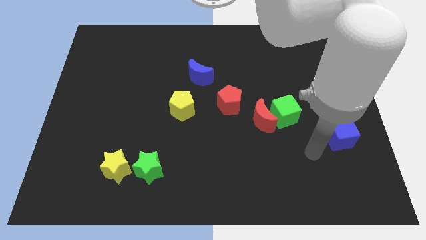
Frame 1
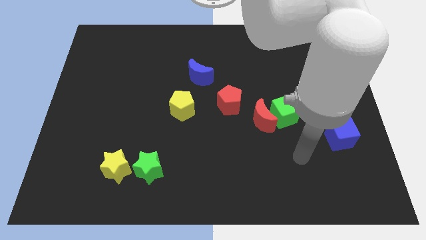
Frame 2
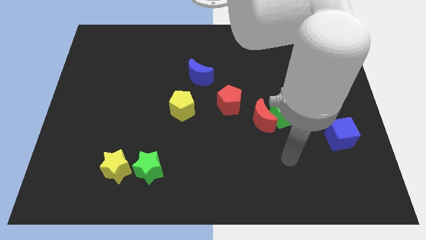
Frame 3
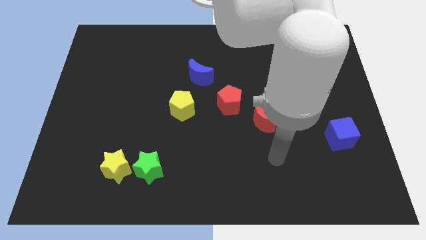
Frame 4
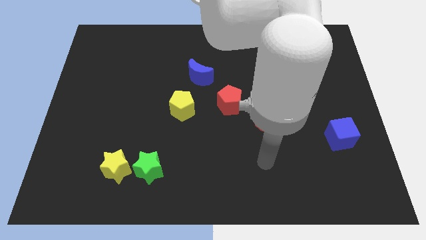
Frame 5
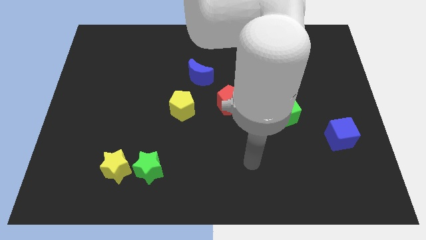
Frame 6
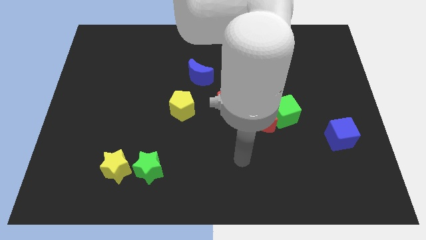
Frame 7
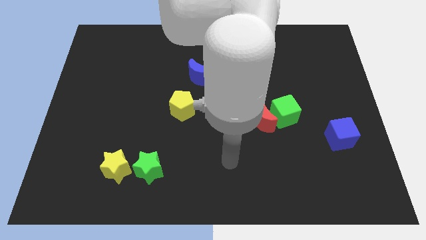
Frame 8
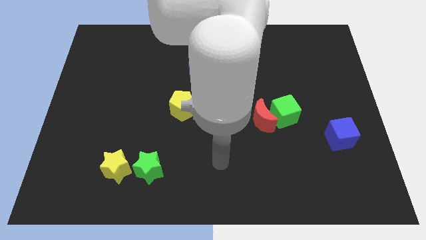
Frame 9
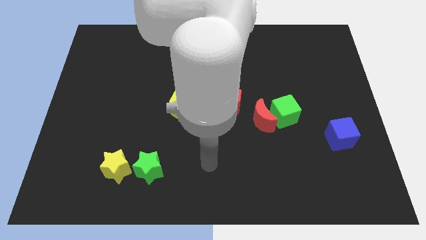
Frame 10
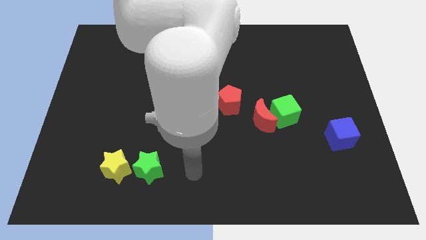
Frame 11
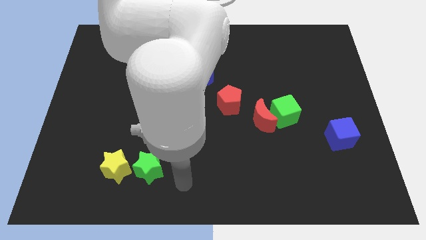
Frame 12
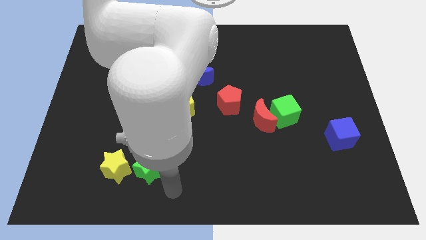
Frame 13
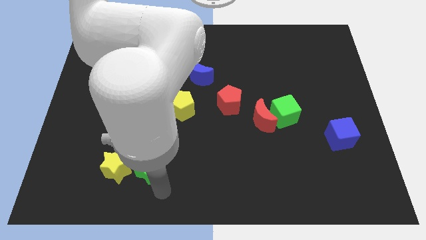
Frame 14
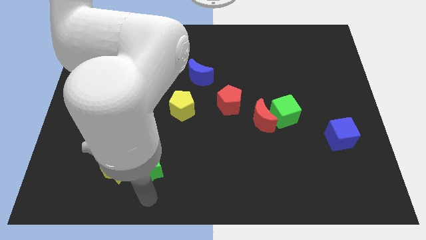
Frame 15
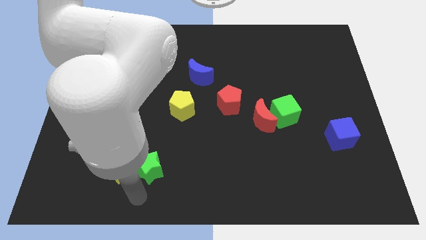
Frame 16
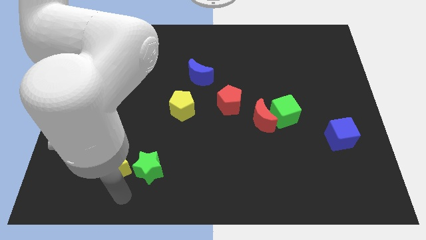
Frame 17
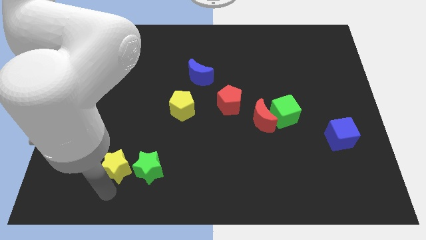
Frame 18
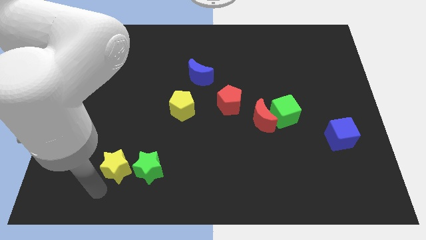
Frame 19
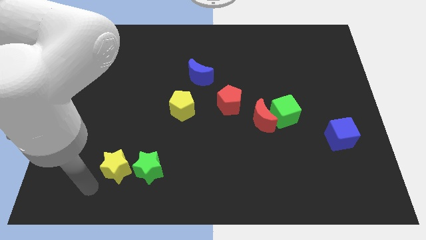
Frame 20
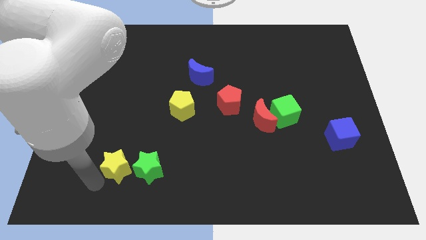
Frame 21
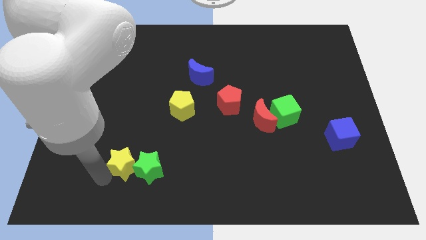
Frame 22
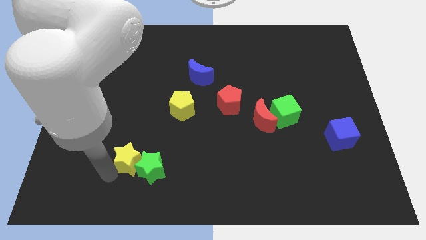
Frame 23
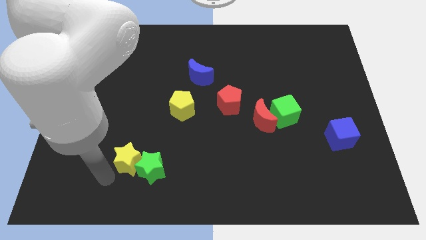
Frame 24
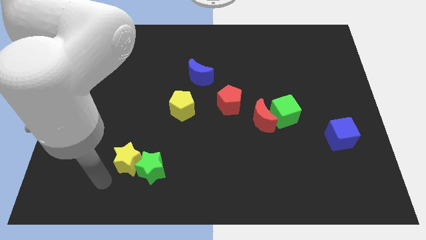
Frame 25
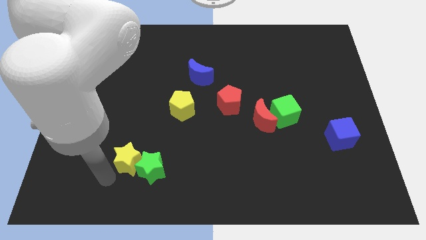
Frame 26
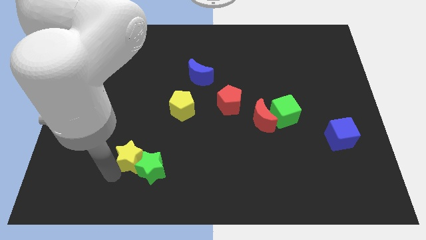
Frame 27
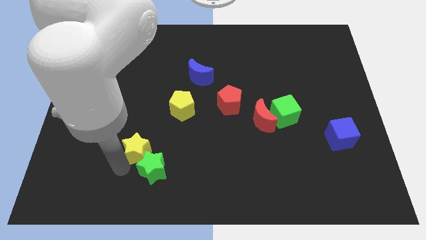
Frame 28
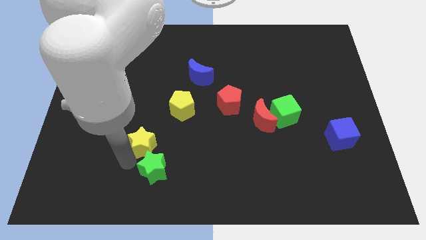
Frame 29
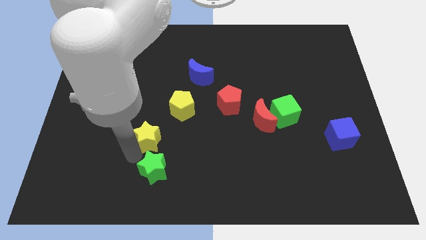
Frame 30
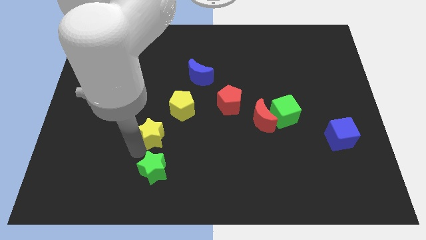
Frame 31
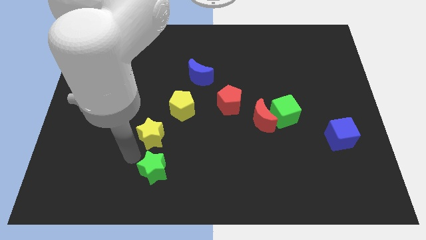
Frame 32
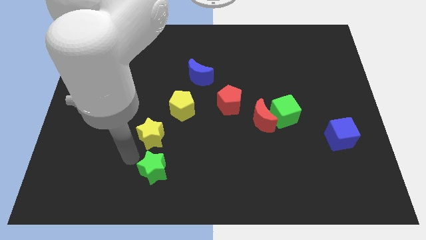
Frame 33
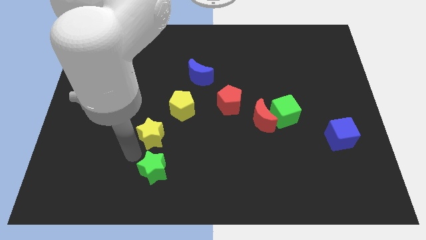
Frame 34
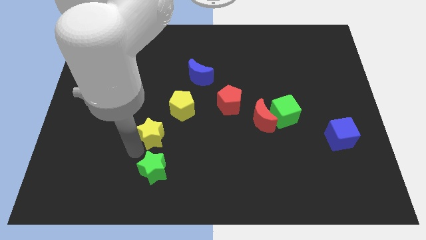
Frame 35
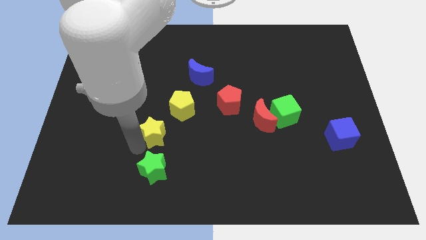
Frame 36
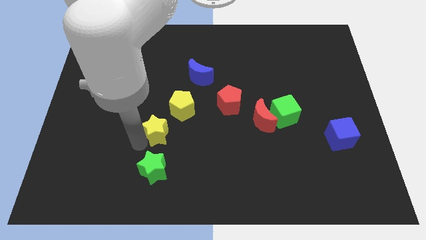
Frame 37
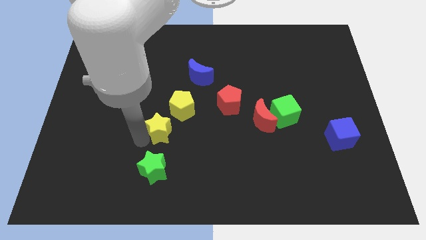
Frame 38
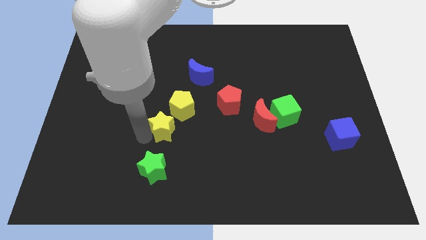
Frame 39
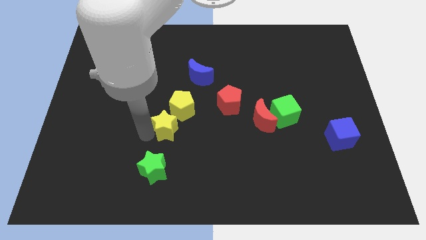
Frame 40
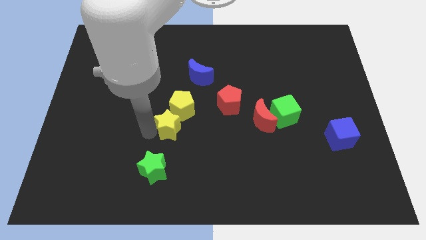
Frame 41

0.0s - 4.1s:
put the yellow star close to the yellow pentagon

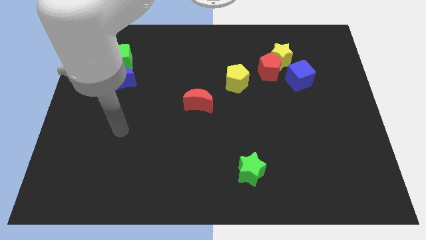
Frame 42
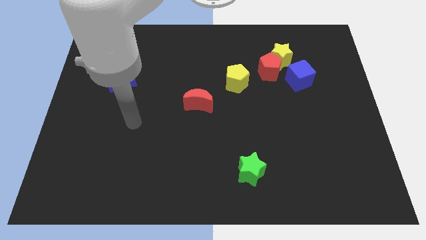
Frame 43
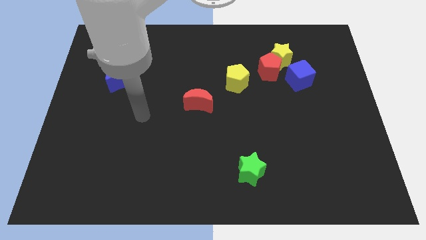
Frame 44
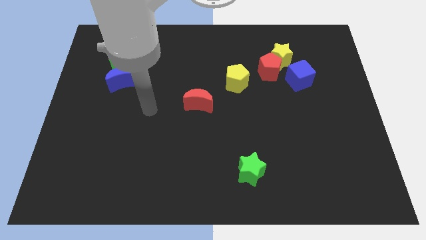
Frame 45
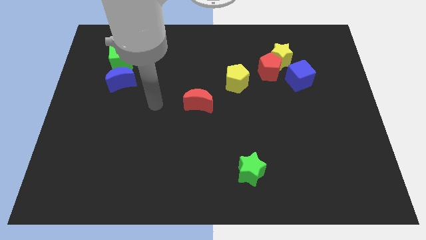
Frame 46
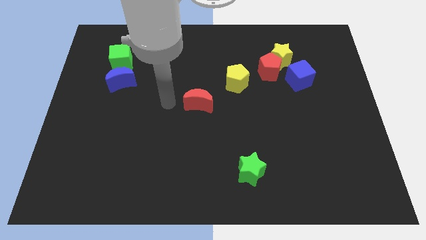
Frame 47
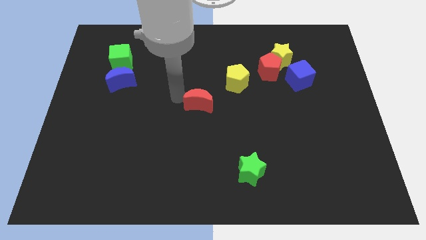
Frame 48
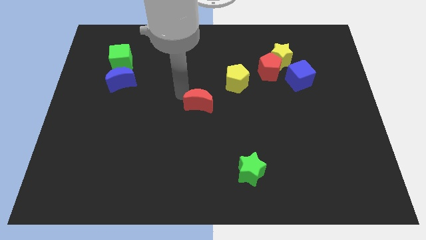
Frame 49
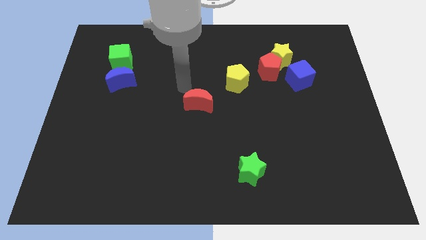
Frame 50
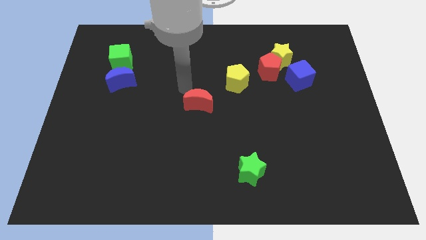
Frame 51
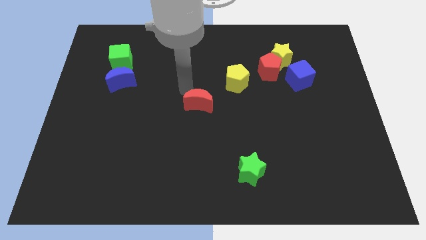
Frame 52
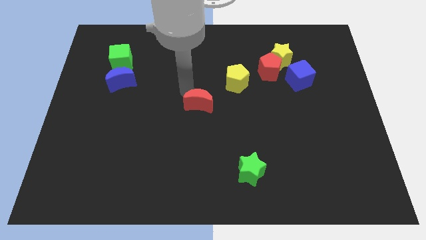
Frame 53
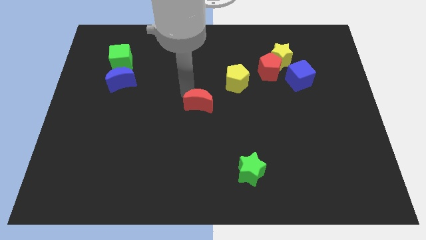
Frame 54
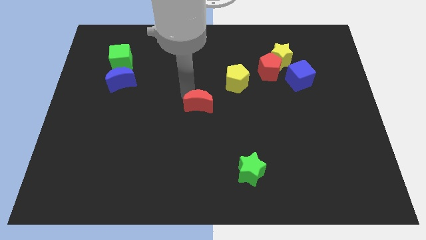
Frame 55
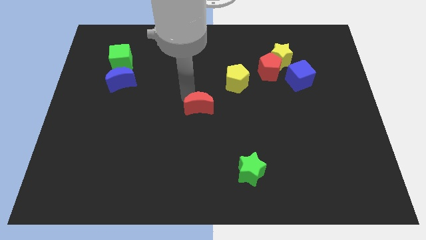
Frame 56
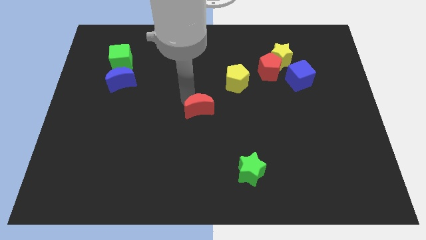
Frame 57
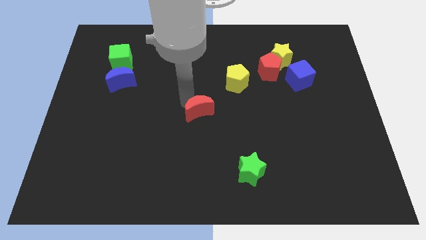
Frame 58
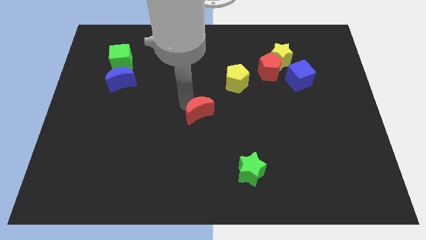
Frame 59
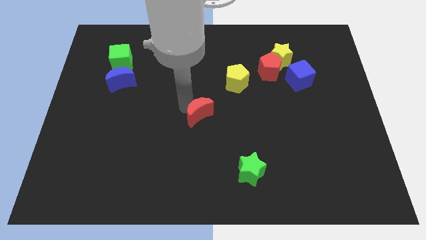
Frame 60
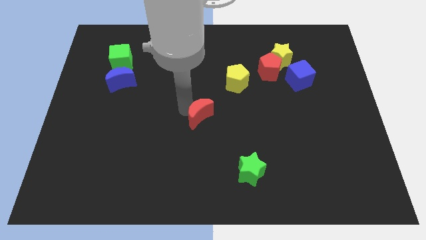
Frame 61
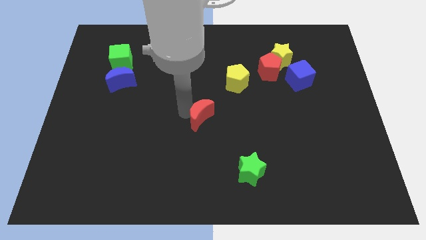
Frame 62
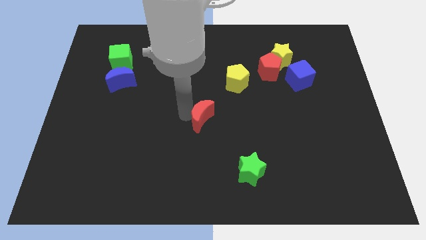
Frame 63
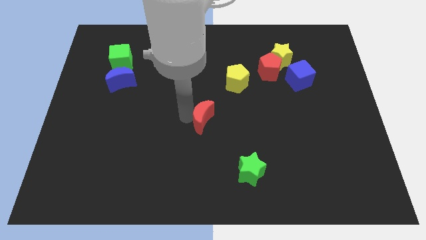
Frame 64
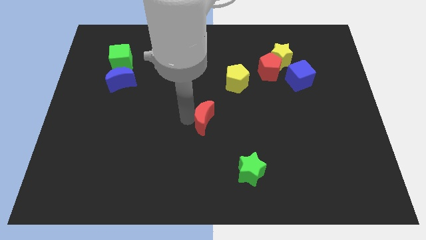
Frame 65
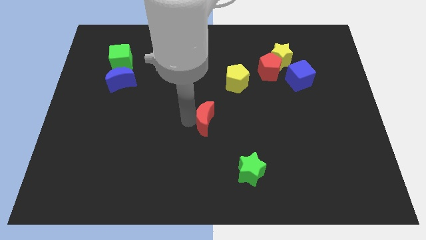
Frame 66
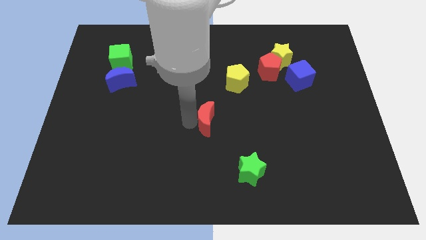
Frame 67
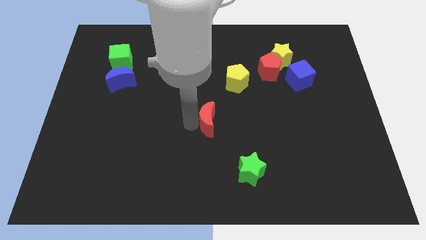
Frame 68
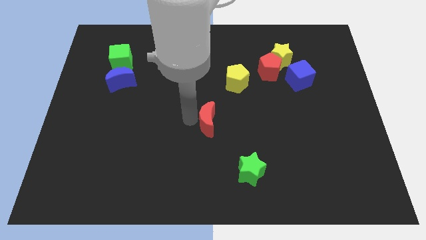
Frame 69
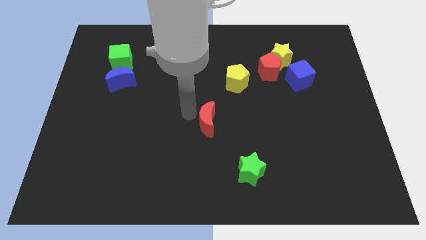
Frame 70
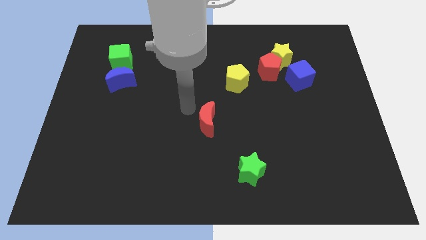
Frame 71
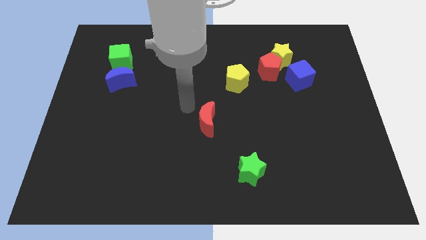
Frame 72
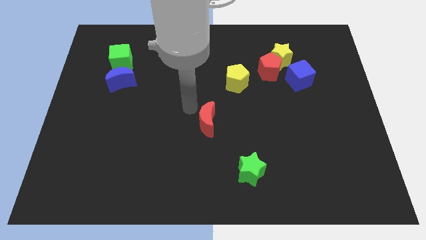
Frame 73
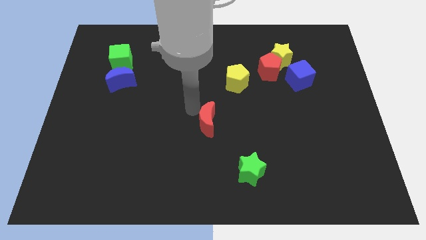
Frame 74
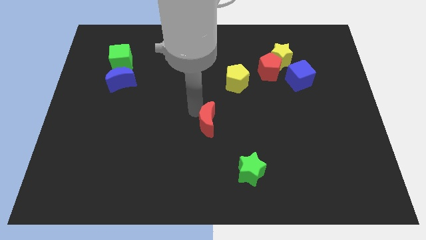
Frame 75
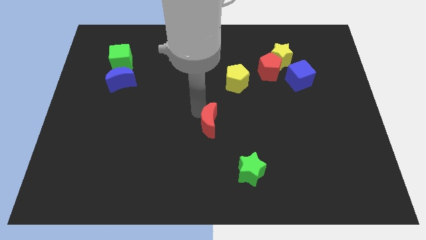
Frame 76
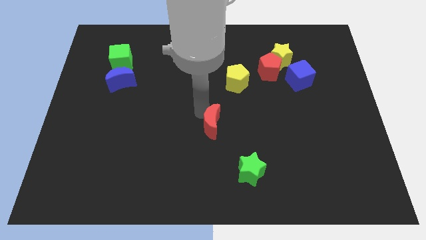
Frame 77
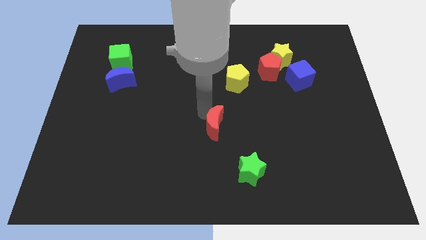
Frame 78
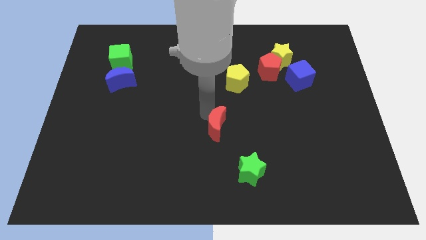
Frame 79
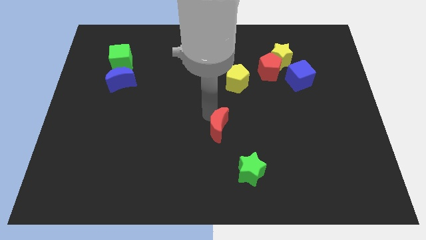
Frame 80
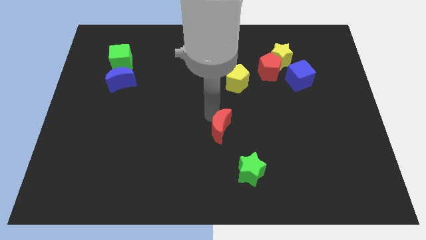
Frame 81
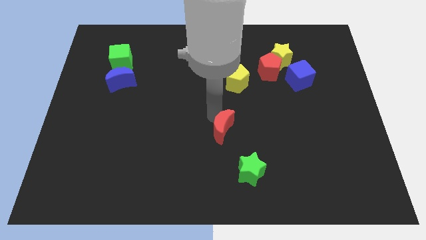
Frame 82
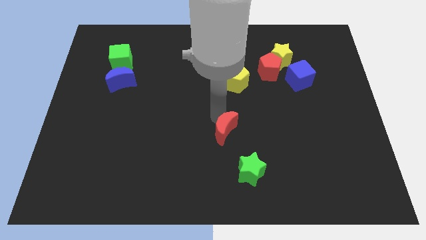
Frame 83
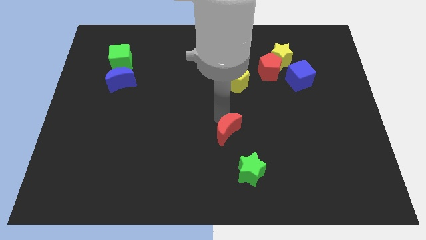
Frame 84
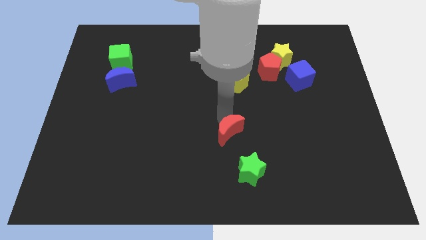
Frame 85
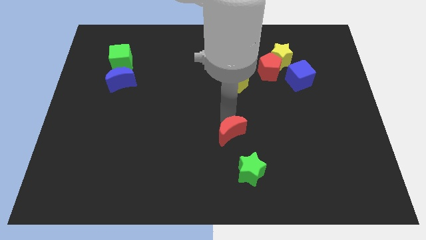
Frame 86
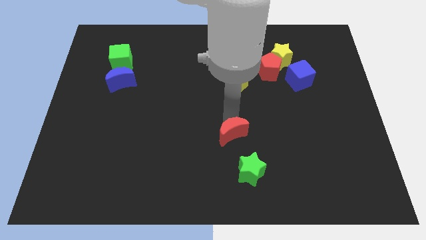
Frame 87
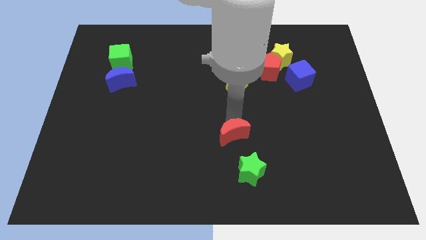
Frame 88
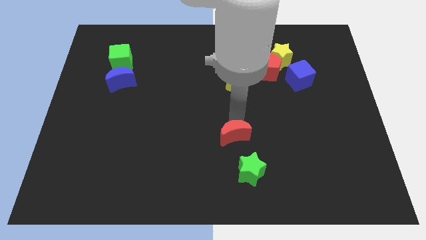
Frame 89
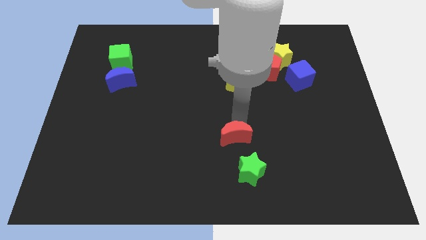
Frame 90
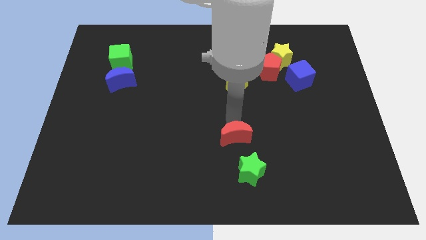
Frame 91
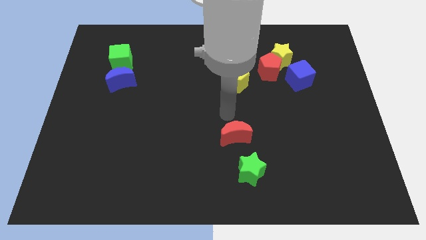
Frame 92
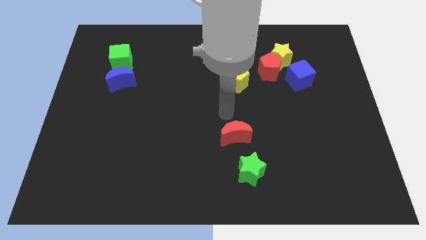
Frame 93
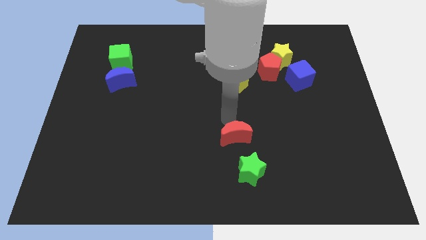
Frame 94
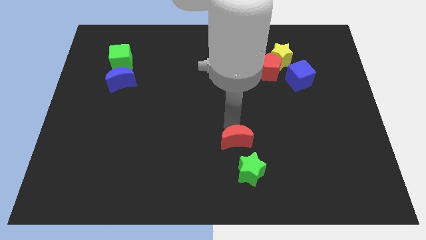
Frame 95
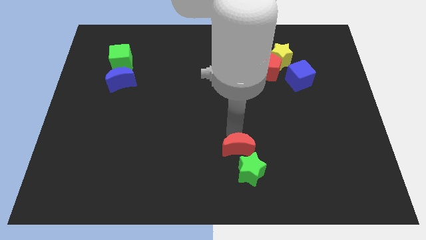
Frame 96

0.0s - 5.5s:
put the red moon close to the green star
